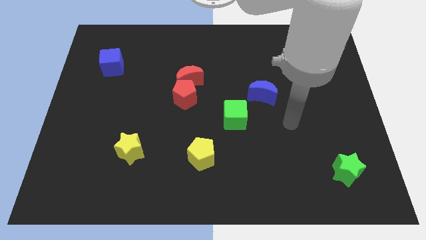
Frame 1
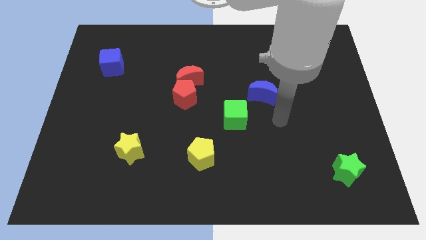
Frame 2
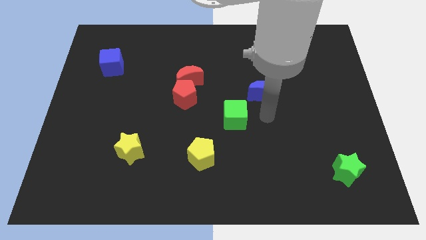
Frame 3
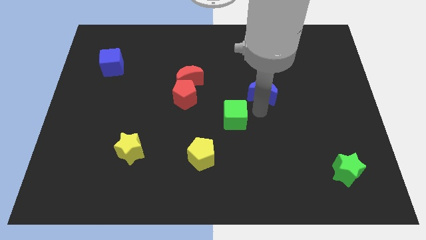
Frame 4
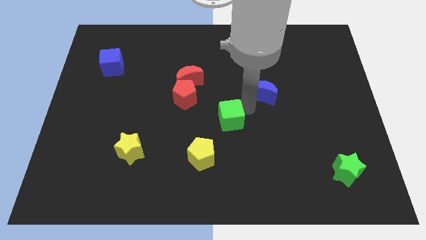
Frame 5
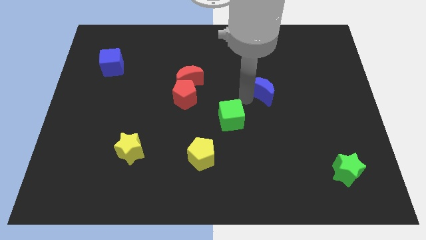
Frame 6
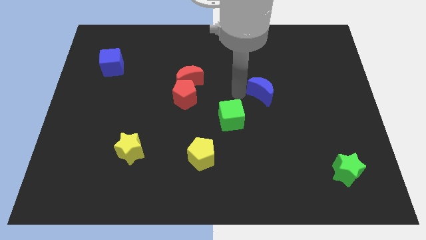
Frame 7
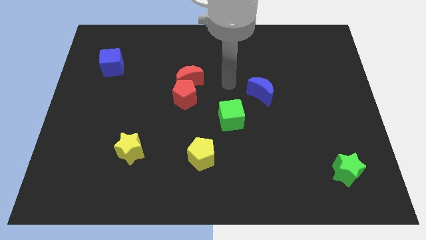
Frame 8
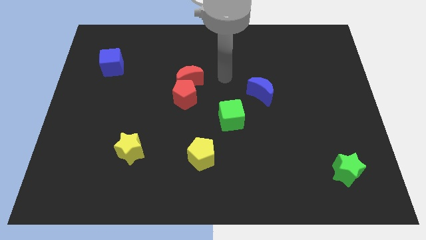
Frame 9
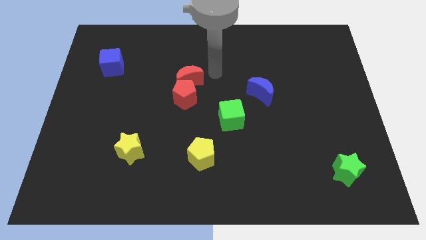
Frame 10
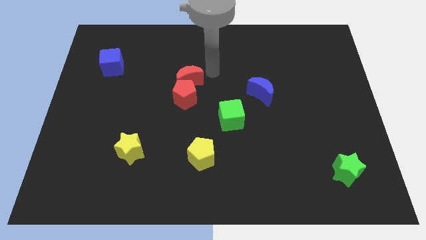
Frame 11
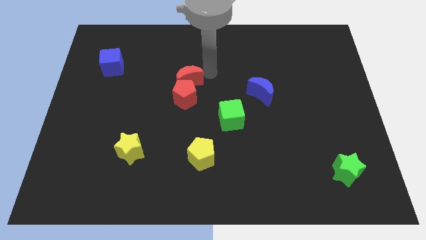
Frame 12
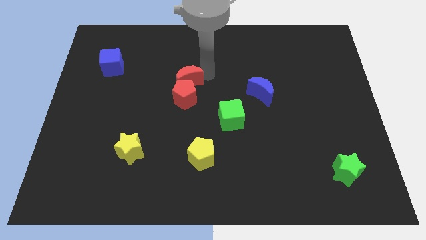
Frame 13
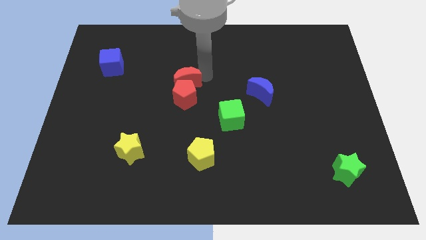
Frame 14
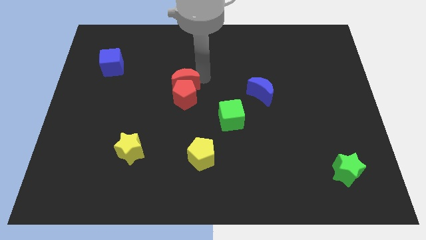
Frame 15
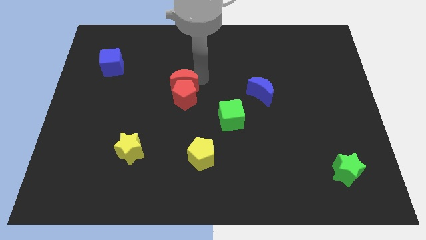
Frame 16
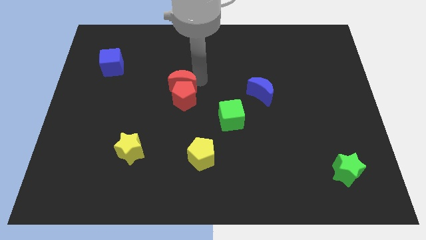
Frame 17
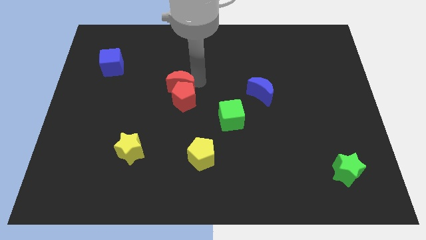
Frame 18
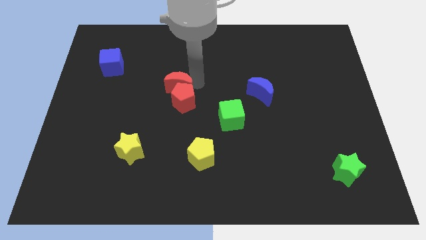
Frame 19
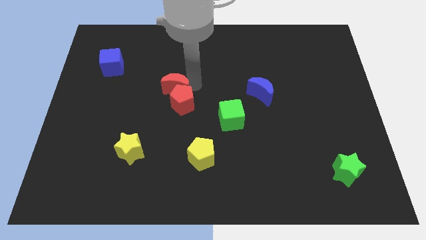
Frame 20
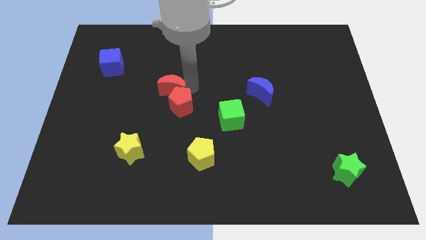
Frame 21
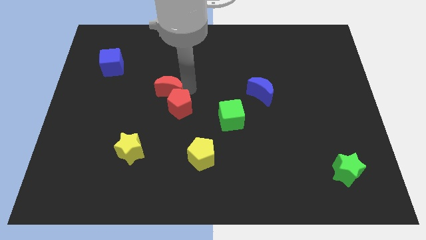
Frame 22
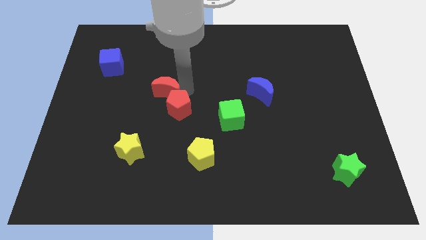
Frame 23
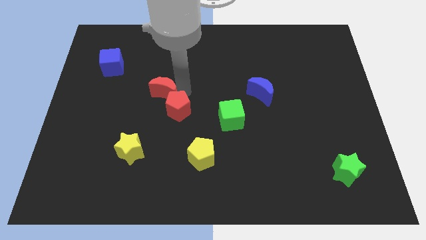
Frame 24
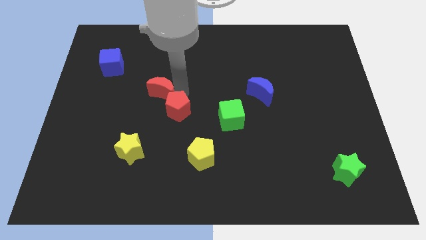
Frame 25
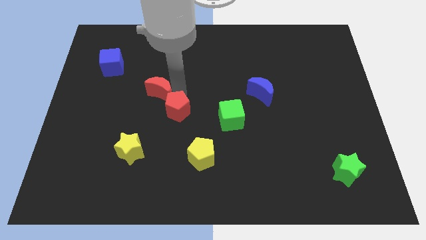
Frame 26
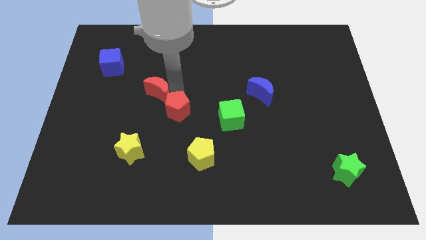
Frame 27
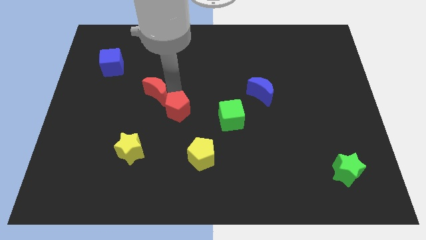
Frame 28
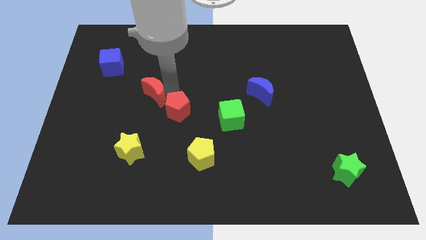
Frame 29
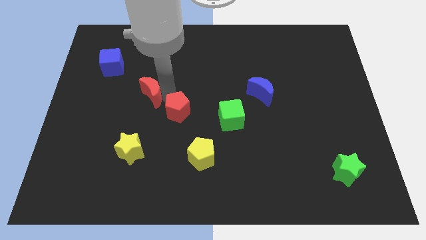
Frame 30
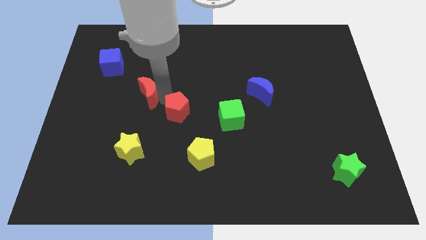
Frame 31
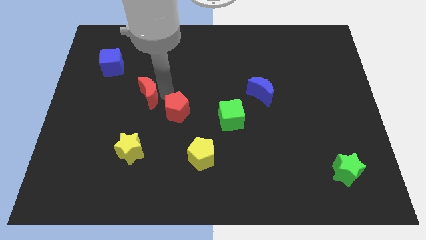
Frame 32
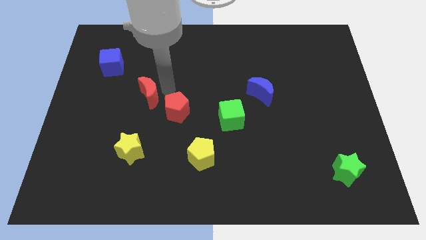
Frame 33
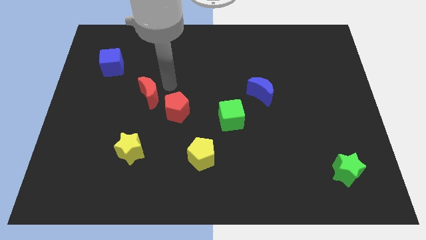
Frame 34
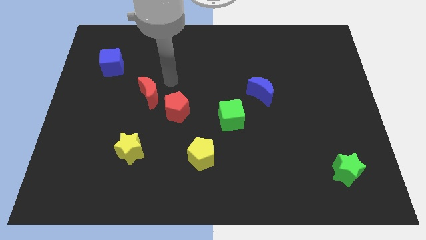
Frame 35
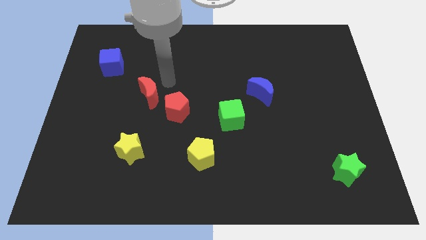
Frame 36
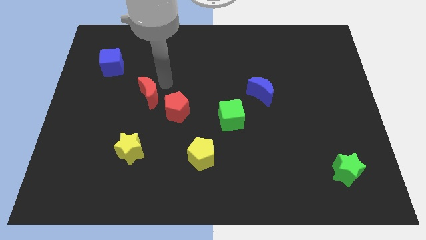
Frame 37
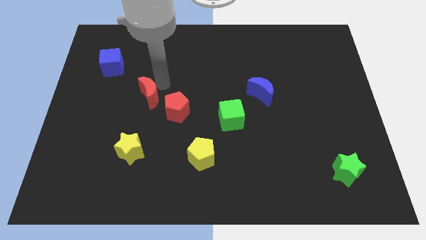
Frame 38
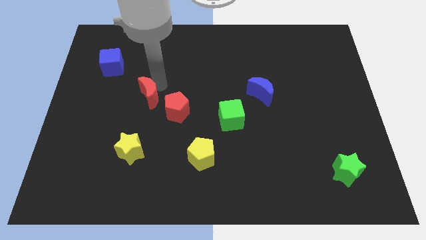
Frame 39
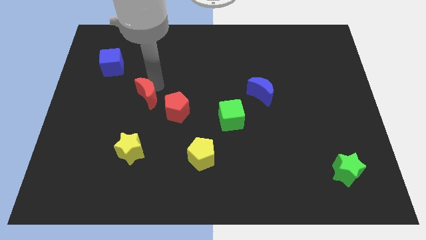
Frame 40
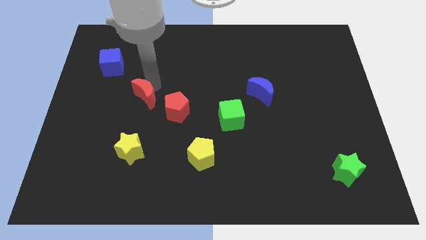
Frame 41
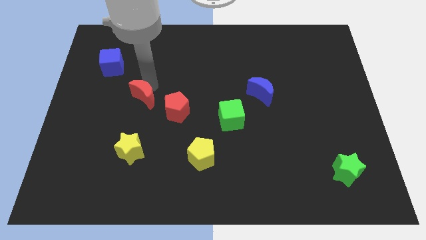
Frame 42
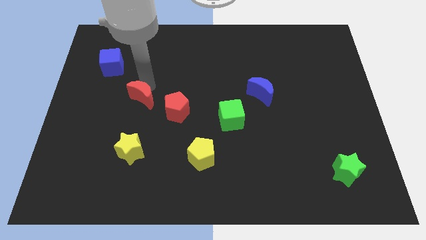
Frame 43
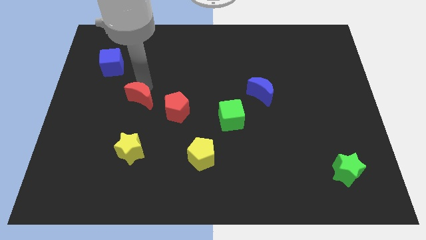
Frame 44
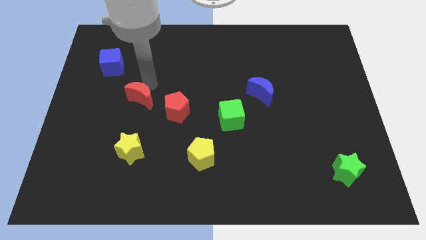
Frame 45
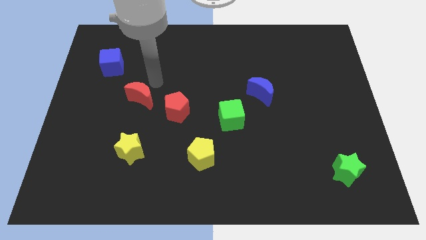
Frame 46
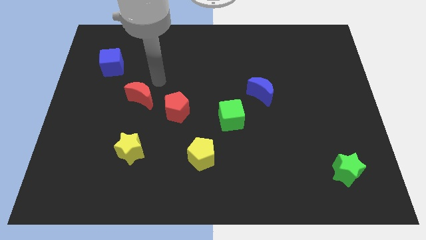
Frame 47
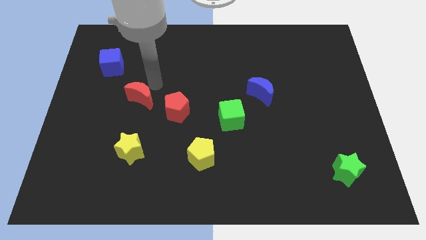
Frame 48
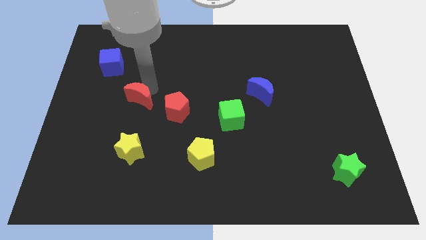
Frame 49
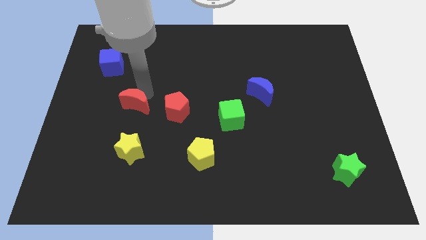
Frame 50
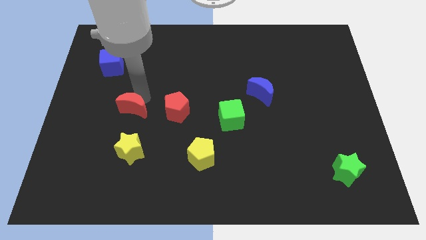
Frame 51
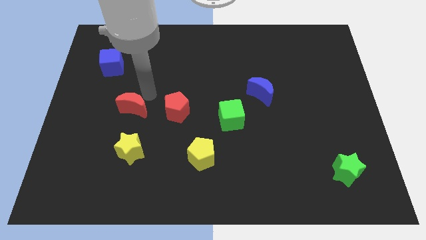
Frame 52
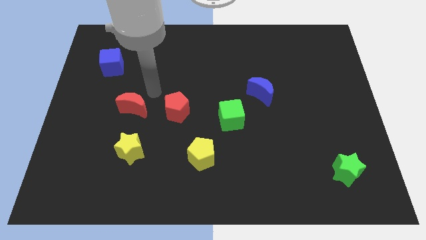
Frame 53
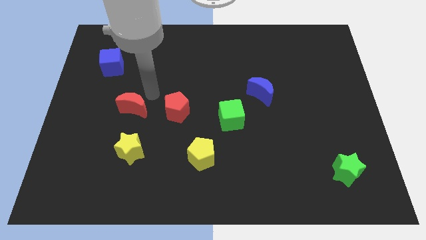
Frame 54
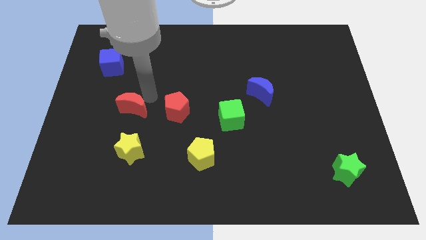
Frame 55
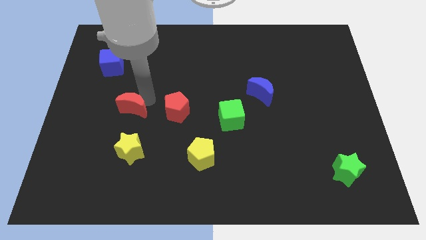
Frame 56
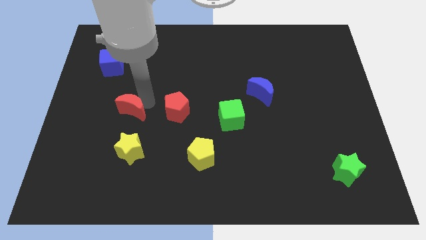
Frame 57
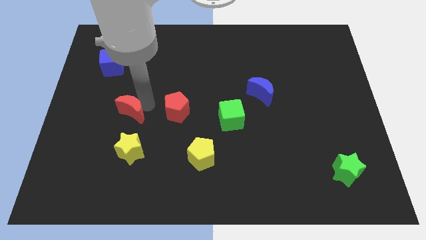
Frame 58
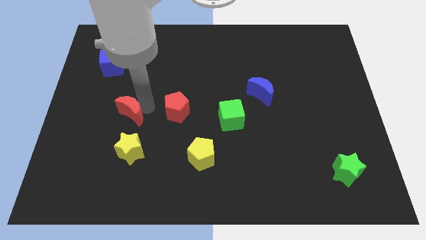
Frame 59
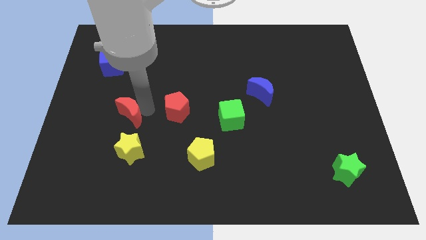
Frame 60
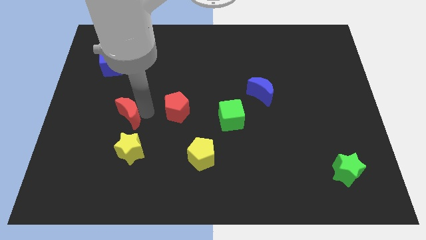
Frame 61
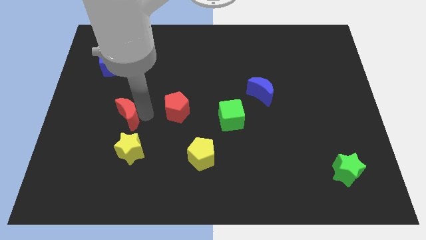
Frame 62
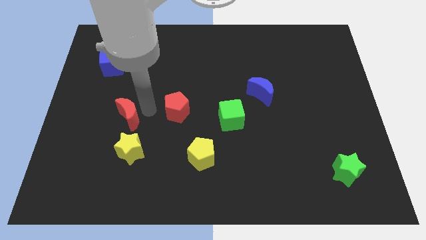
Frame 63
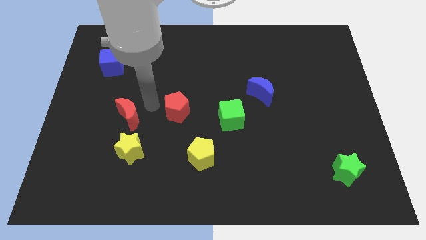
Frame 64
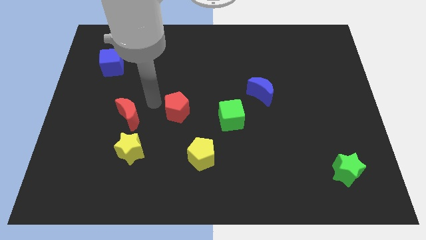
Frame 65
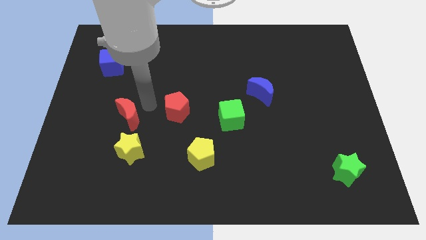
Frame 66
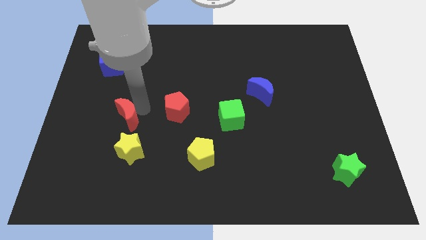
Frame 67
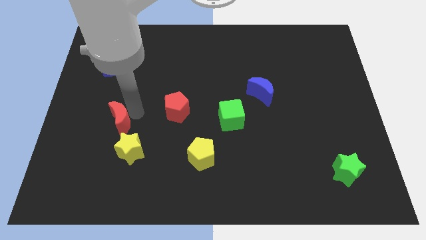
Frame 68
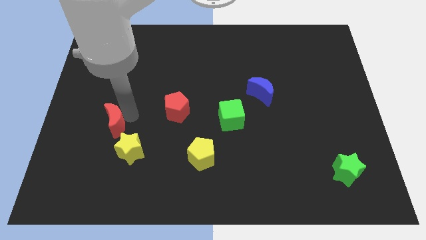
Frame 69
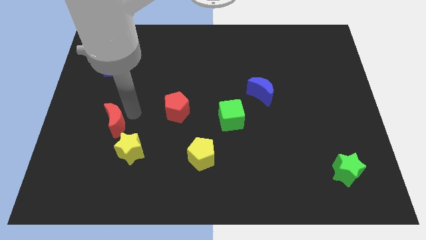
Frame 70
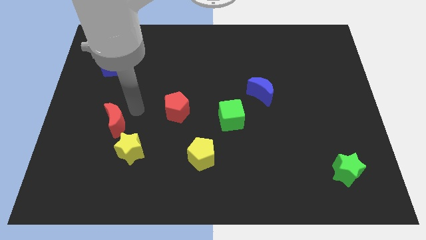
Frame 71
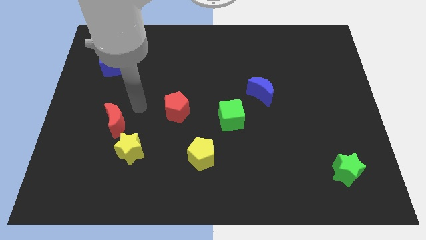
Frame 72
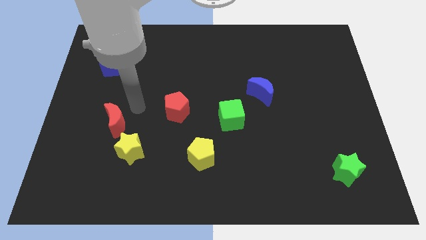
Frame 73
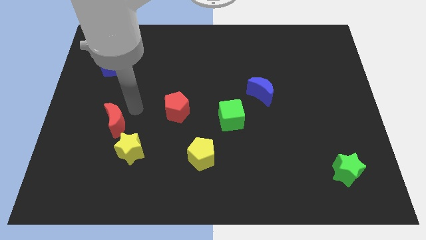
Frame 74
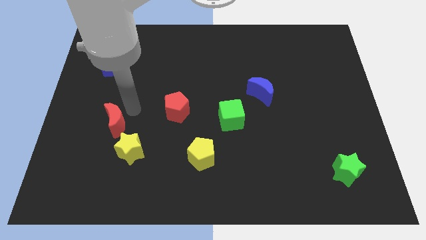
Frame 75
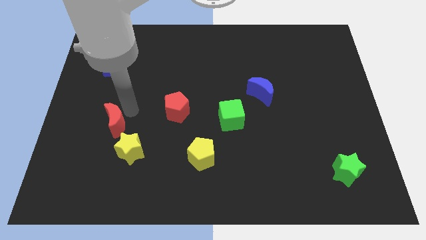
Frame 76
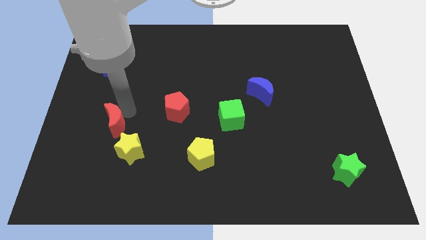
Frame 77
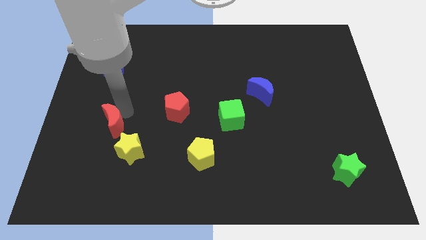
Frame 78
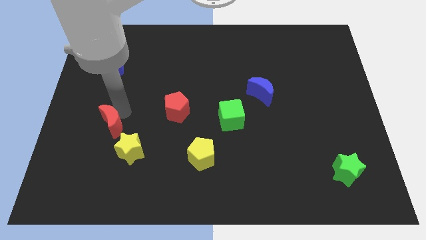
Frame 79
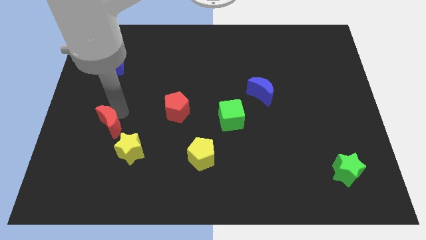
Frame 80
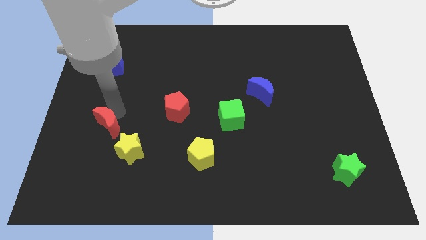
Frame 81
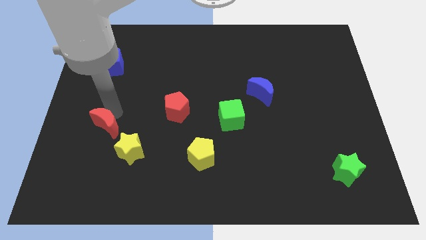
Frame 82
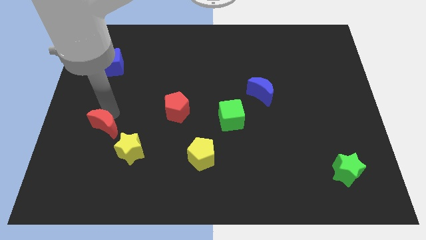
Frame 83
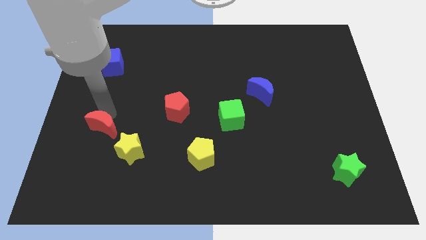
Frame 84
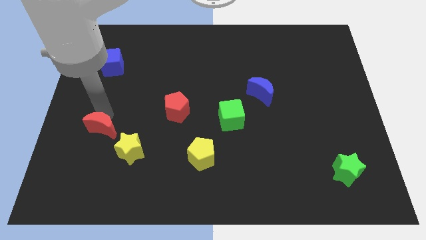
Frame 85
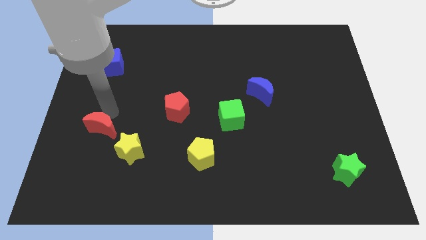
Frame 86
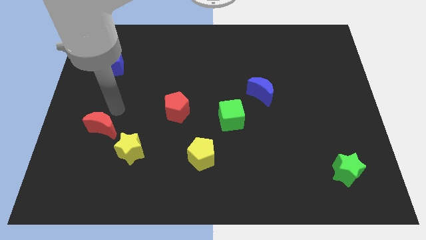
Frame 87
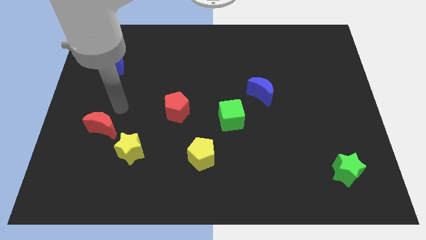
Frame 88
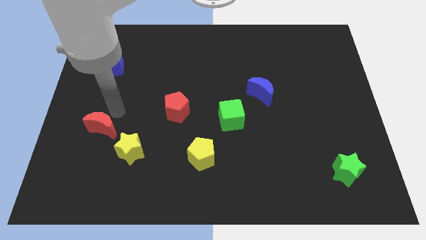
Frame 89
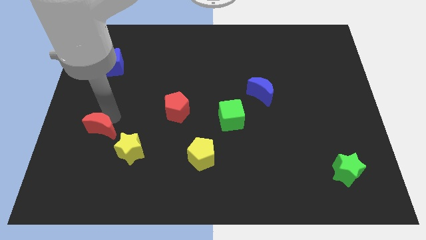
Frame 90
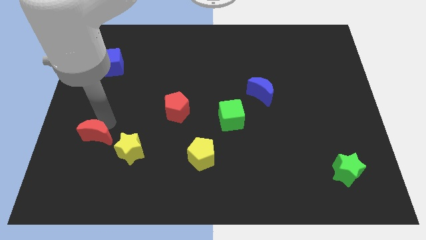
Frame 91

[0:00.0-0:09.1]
push the red moon just left of the yellow star
